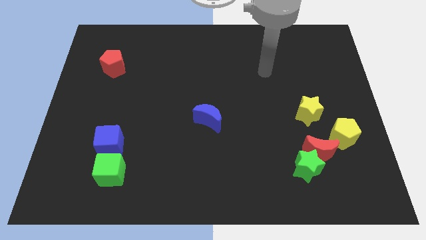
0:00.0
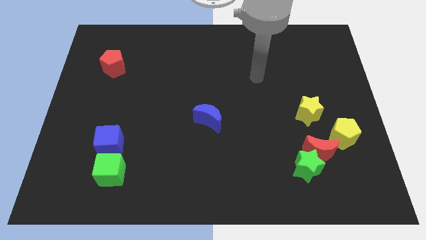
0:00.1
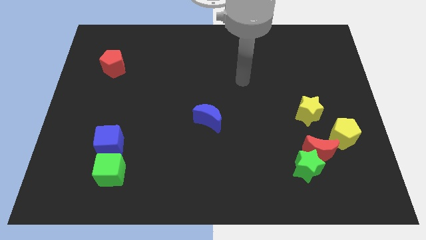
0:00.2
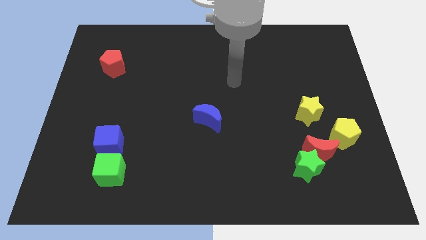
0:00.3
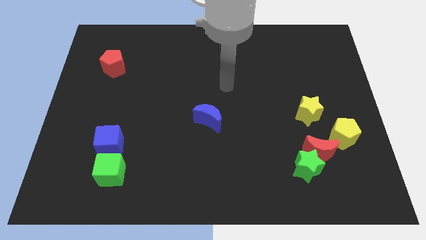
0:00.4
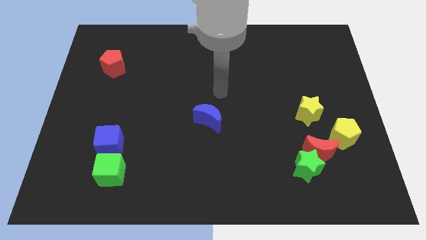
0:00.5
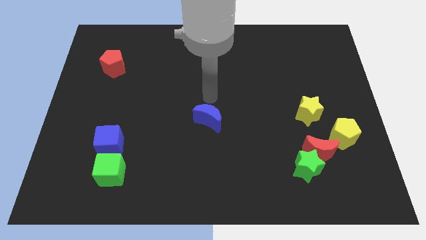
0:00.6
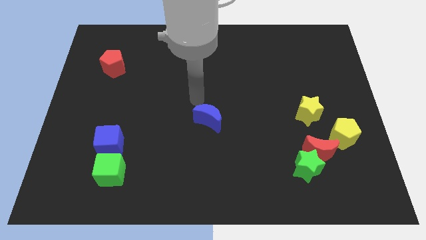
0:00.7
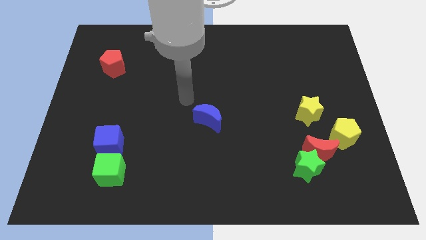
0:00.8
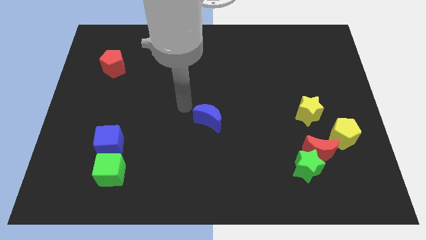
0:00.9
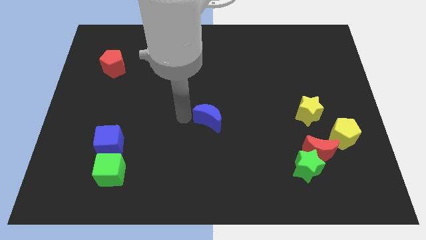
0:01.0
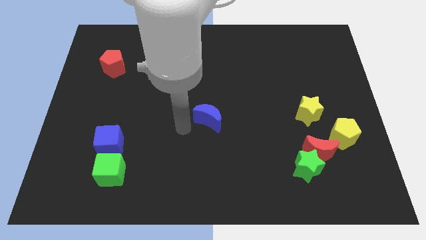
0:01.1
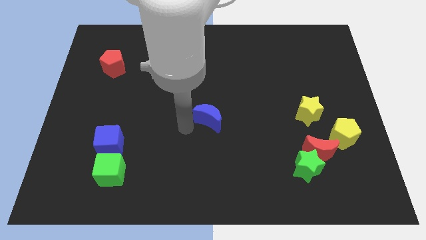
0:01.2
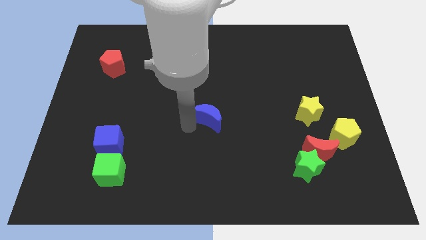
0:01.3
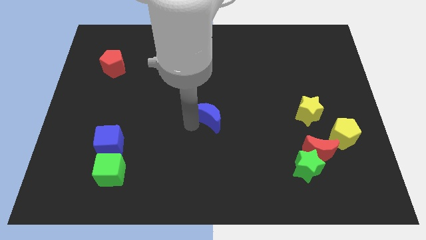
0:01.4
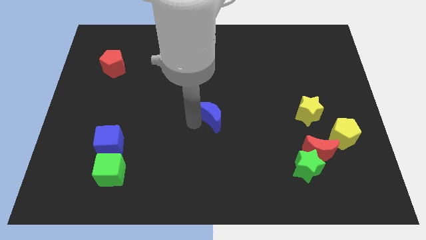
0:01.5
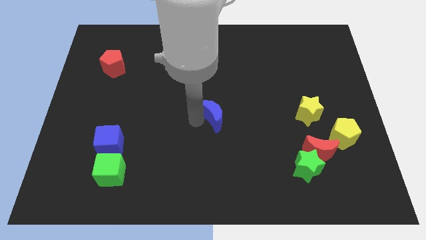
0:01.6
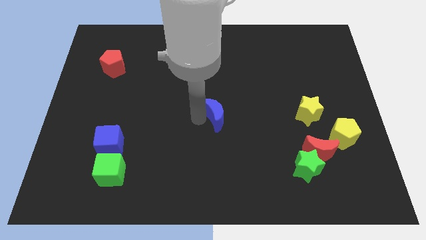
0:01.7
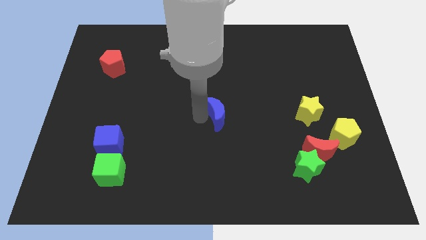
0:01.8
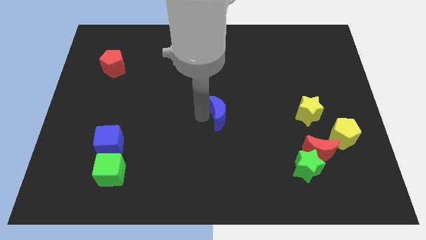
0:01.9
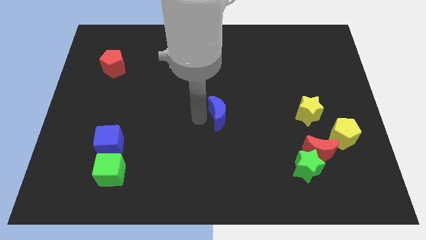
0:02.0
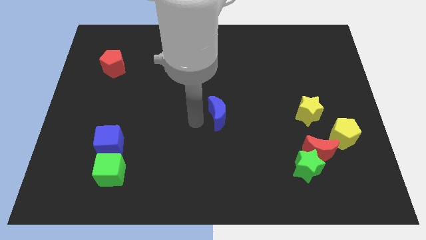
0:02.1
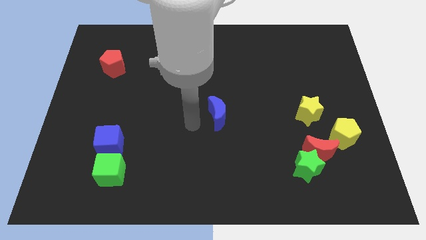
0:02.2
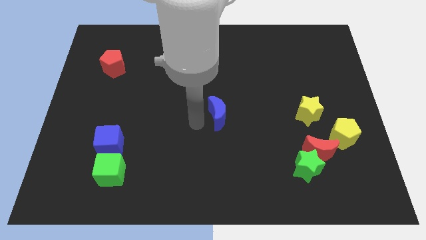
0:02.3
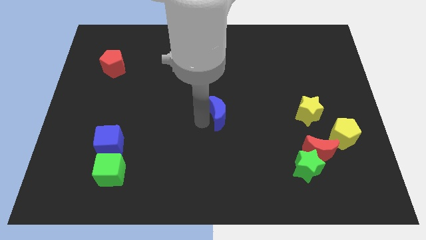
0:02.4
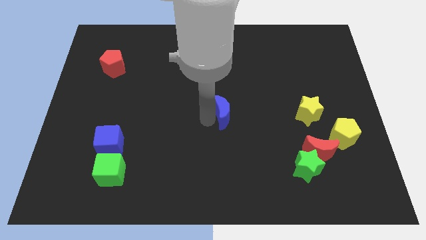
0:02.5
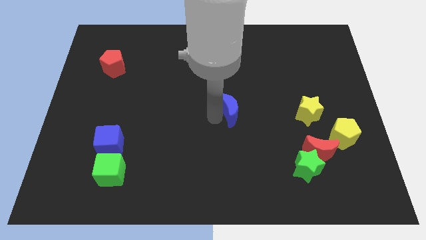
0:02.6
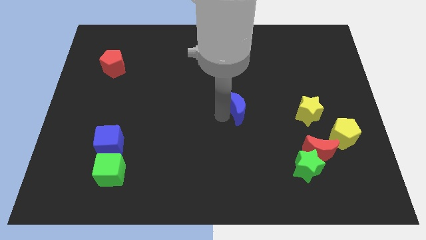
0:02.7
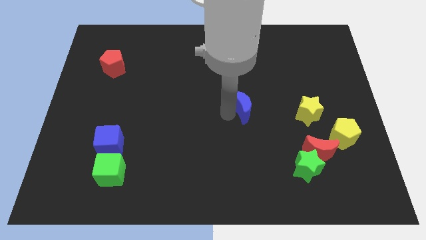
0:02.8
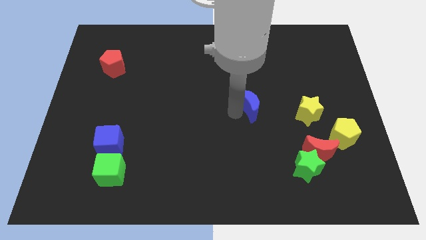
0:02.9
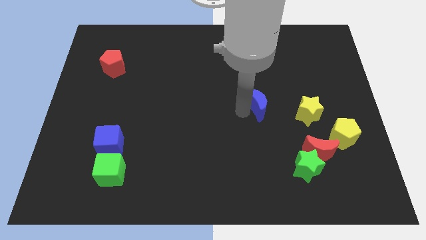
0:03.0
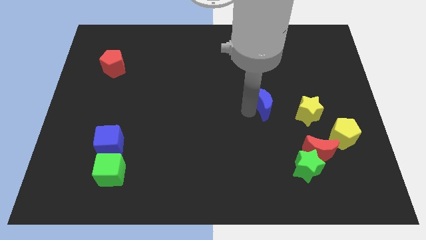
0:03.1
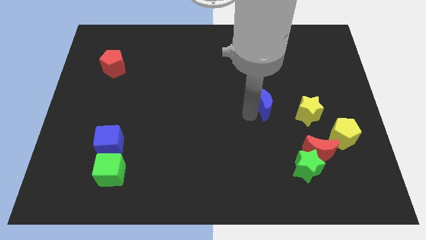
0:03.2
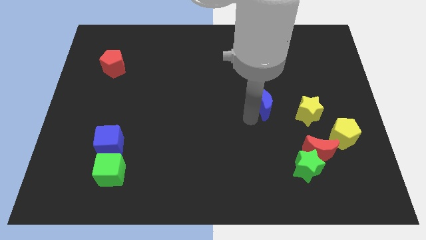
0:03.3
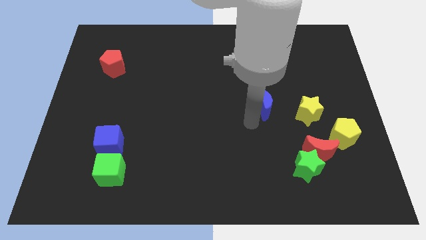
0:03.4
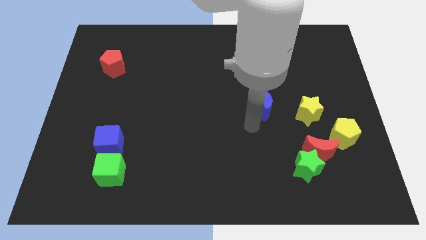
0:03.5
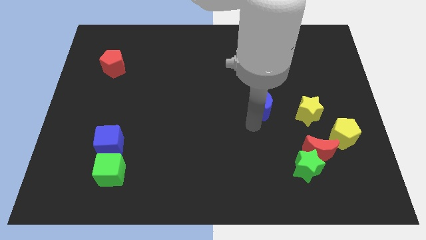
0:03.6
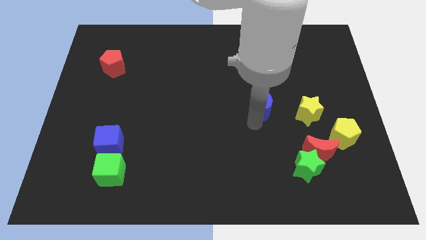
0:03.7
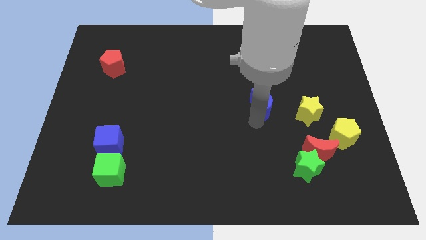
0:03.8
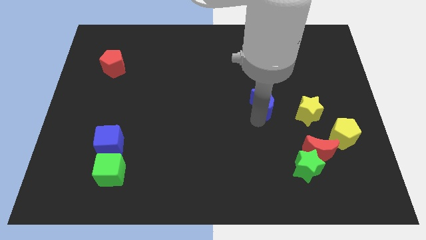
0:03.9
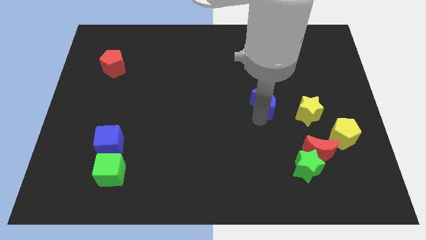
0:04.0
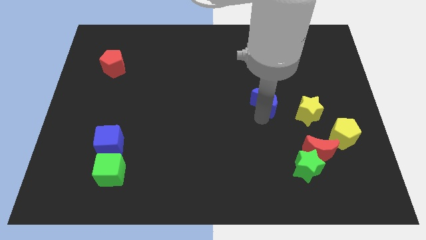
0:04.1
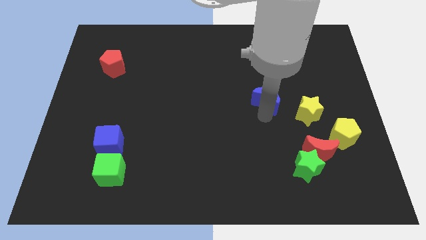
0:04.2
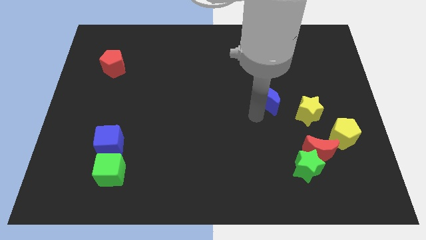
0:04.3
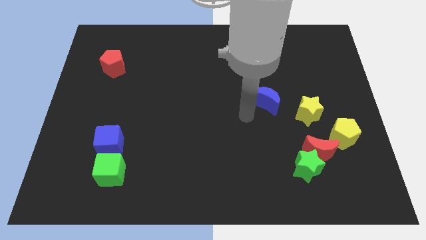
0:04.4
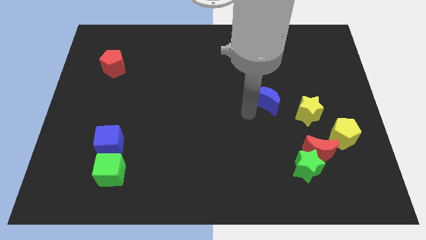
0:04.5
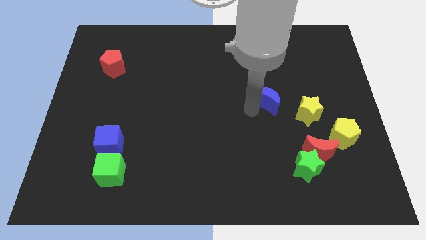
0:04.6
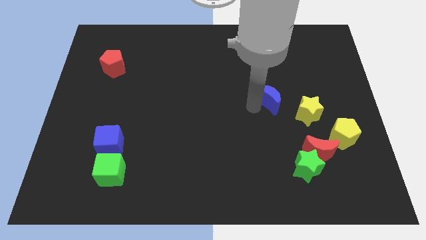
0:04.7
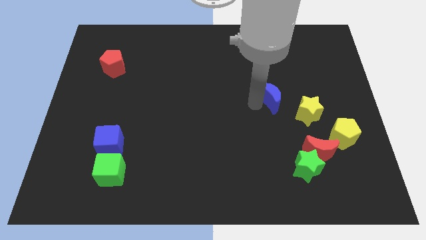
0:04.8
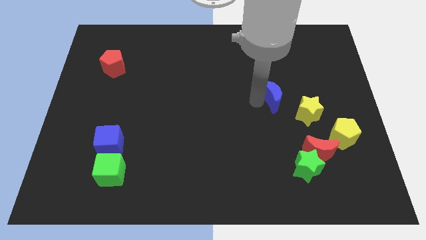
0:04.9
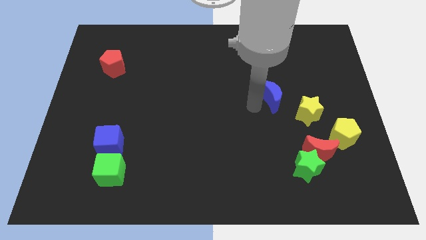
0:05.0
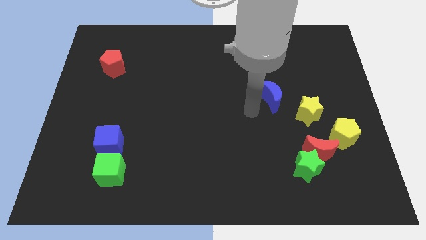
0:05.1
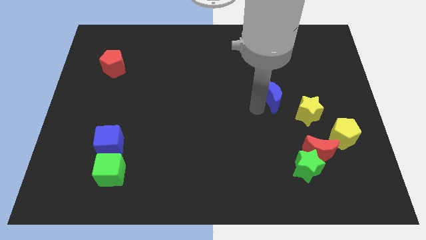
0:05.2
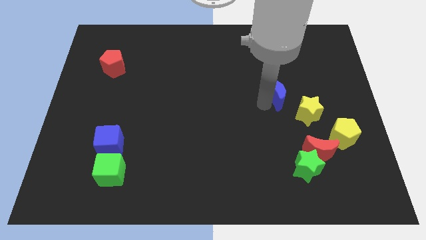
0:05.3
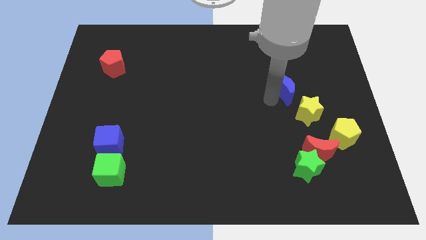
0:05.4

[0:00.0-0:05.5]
slide the blue moon to the top of the yellow star

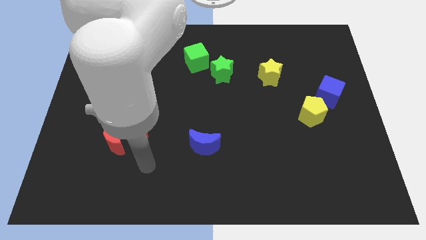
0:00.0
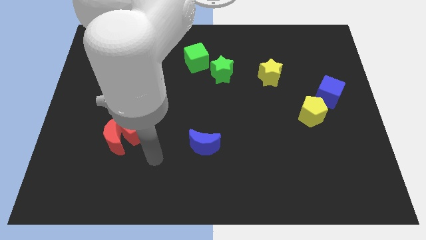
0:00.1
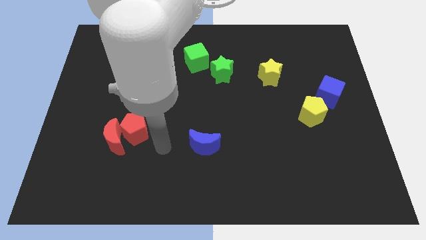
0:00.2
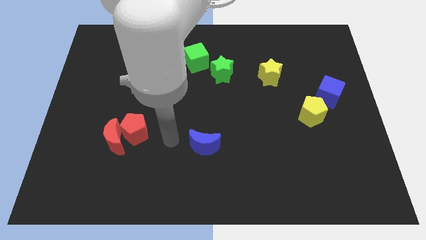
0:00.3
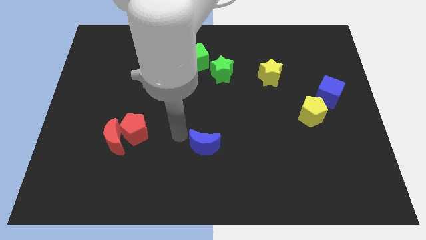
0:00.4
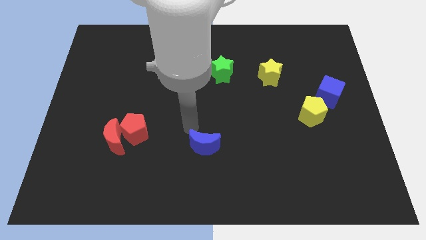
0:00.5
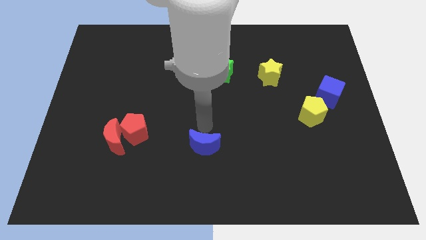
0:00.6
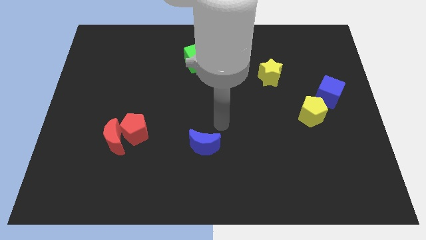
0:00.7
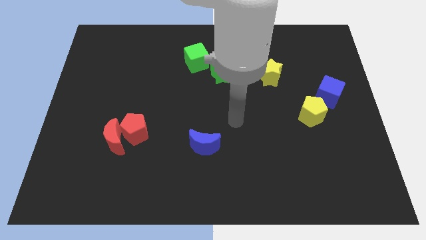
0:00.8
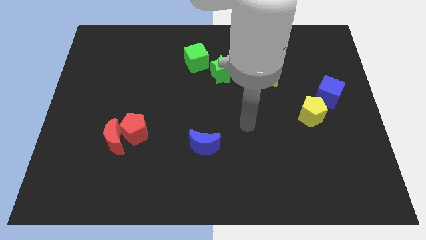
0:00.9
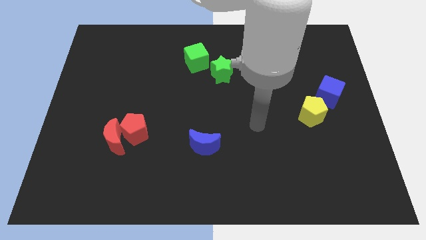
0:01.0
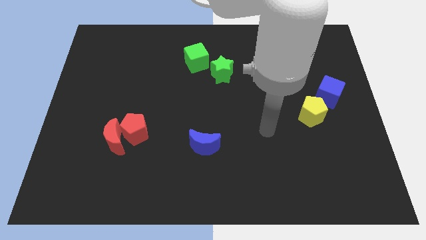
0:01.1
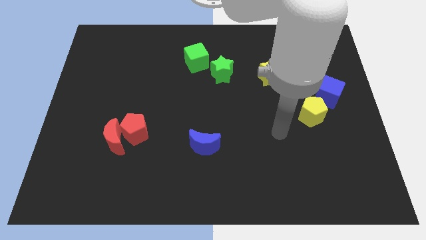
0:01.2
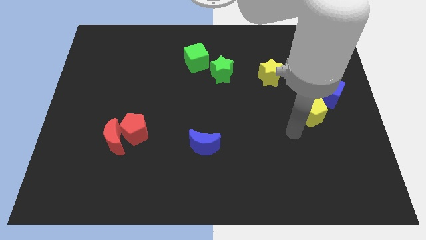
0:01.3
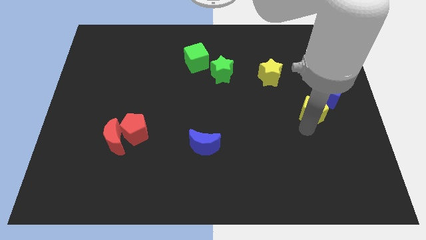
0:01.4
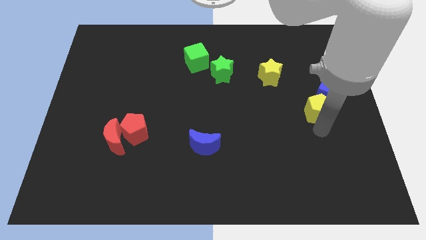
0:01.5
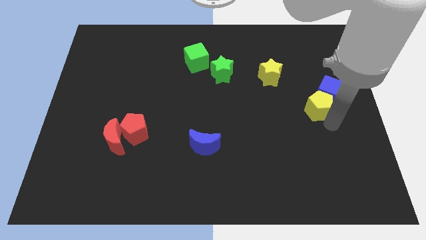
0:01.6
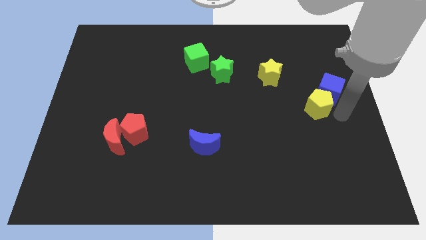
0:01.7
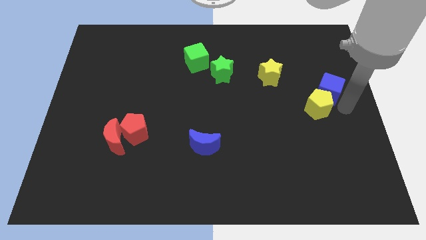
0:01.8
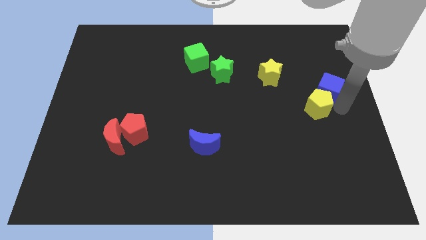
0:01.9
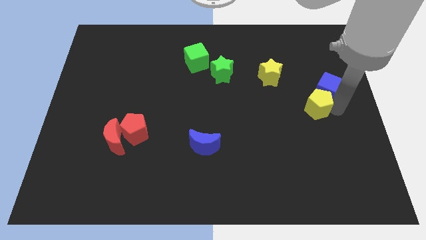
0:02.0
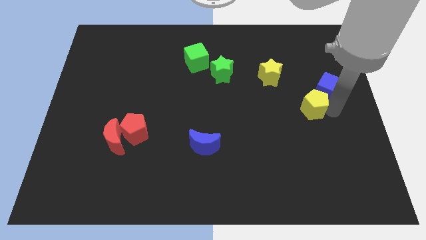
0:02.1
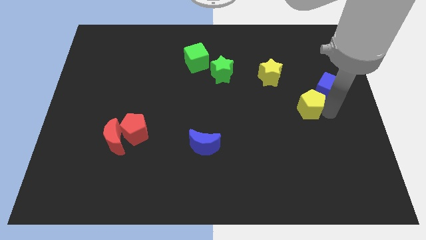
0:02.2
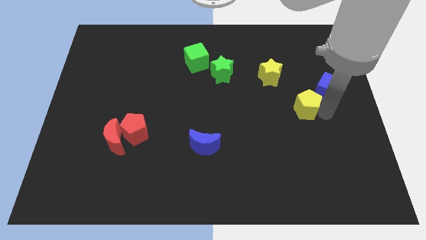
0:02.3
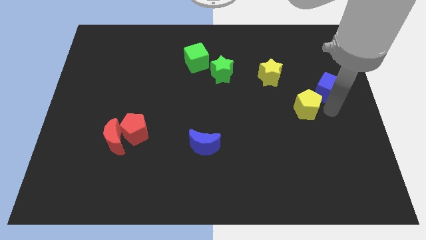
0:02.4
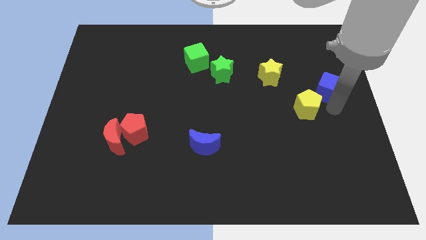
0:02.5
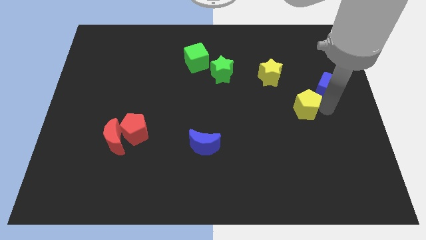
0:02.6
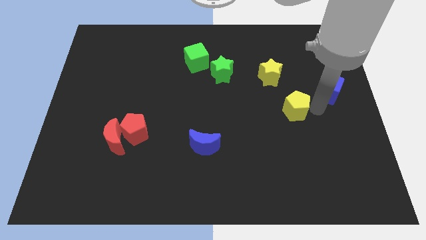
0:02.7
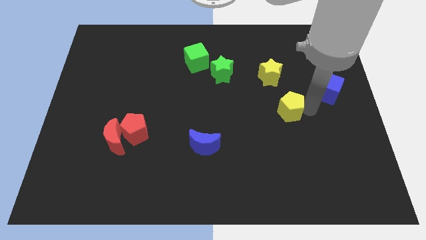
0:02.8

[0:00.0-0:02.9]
slide the yellow pentagon to the bottom side of the yellow star

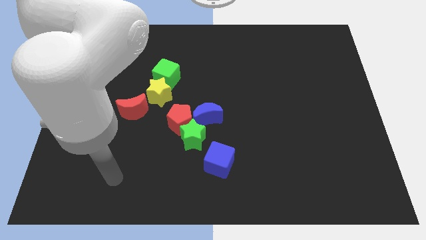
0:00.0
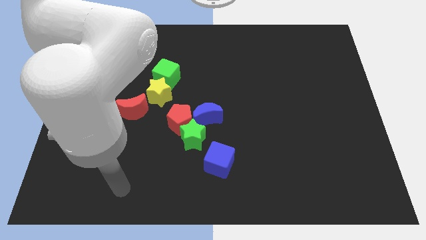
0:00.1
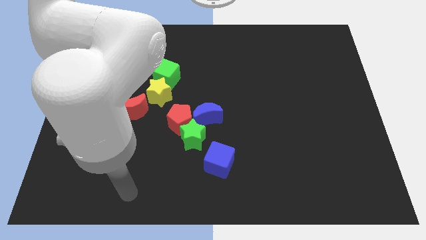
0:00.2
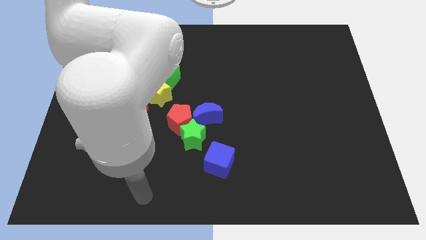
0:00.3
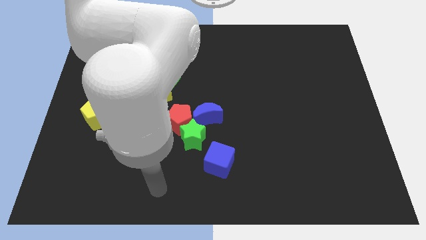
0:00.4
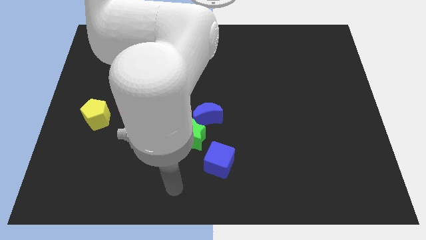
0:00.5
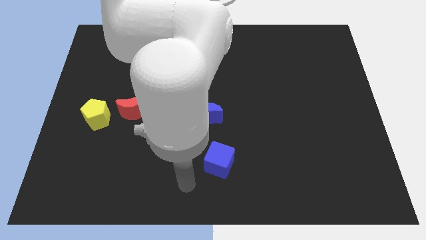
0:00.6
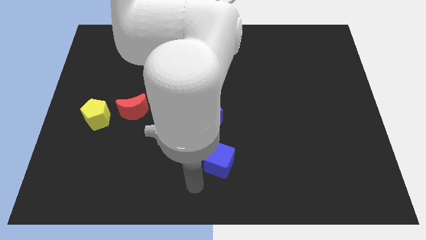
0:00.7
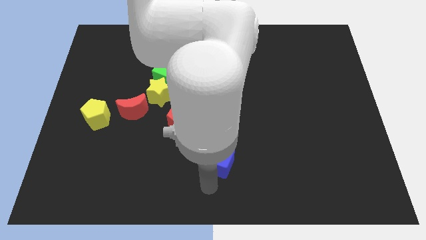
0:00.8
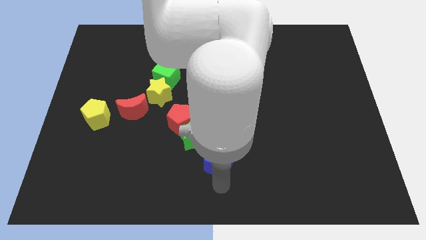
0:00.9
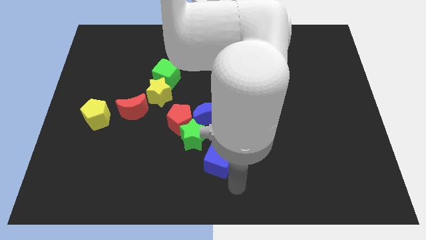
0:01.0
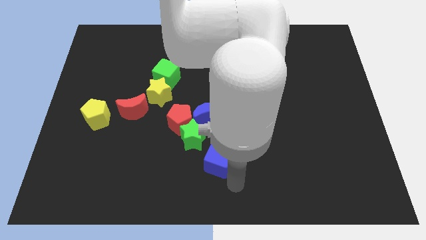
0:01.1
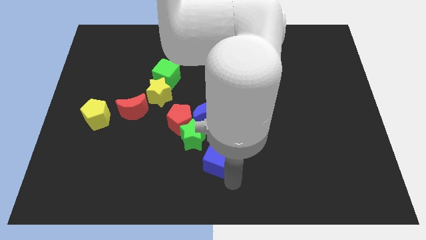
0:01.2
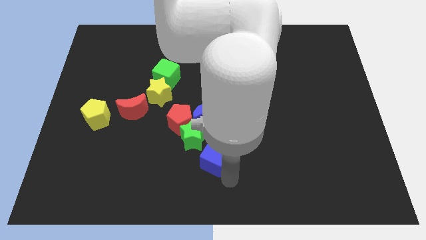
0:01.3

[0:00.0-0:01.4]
put the blue cube diagonally down and to the right of the red pentagon
